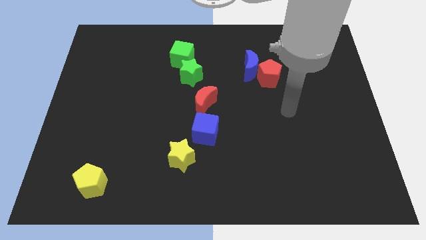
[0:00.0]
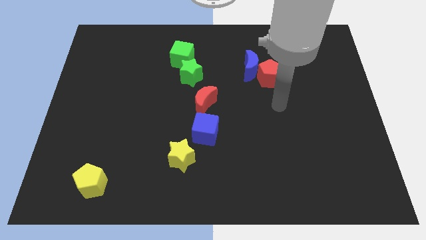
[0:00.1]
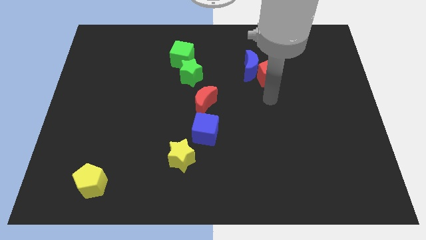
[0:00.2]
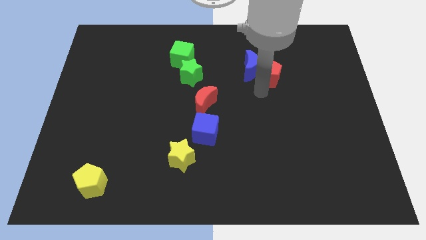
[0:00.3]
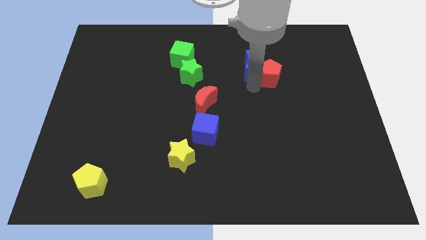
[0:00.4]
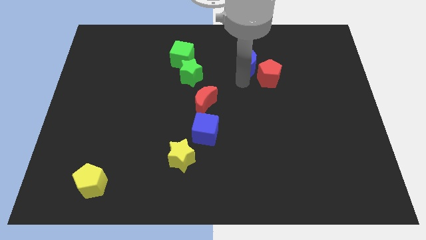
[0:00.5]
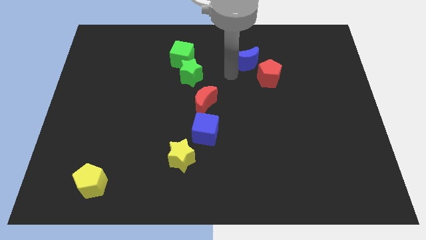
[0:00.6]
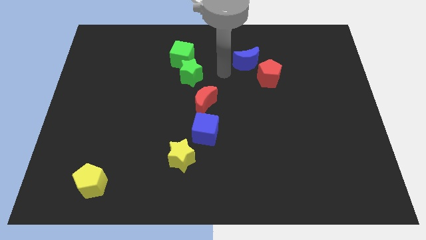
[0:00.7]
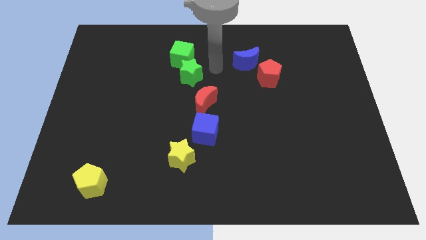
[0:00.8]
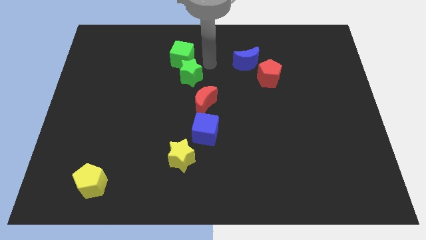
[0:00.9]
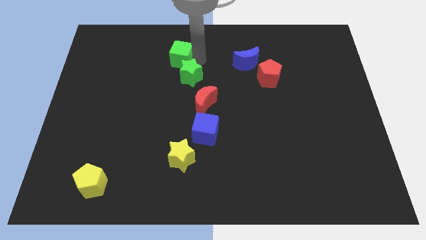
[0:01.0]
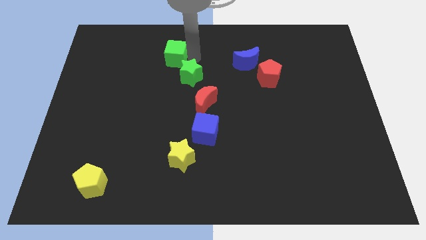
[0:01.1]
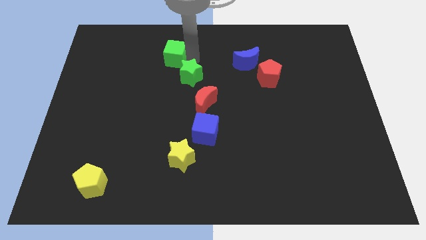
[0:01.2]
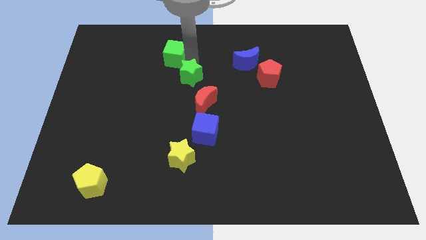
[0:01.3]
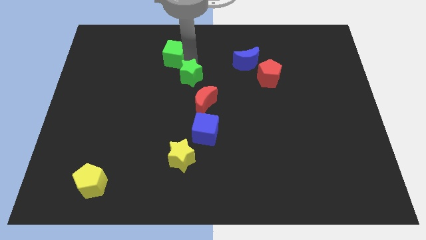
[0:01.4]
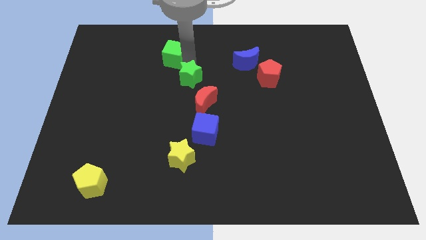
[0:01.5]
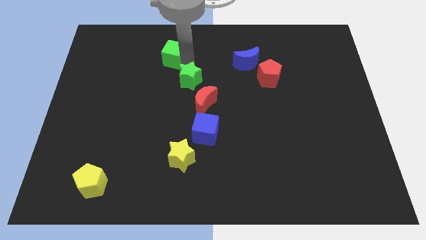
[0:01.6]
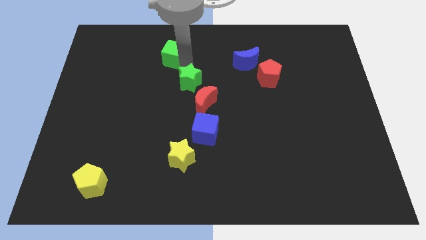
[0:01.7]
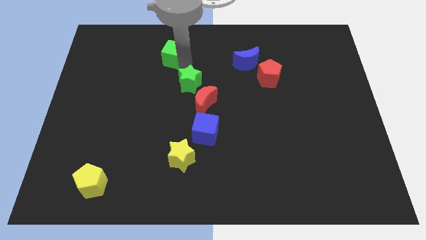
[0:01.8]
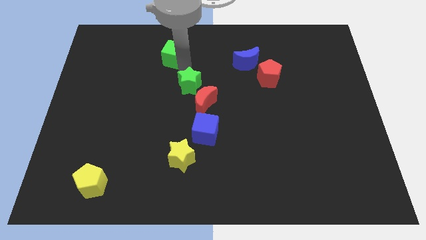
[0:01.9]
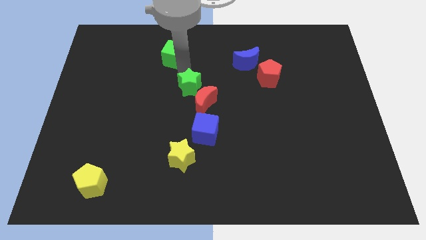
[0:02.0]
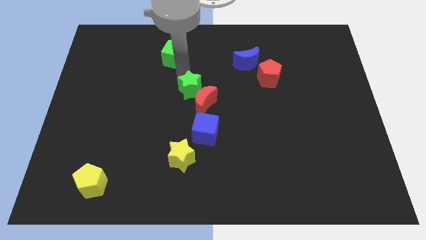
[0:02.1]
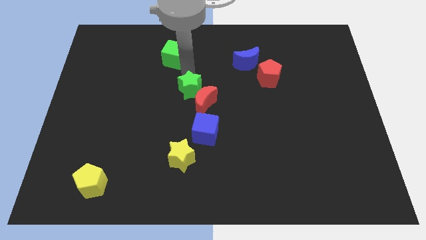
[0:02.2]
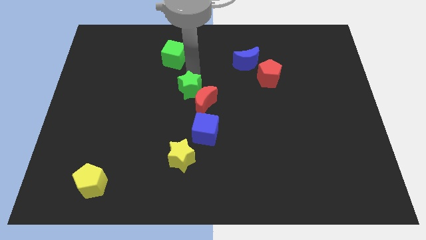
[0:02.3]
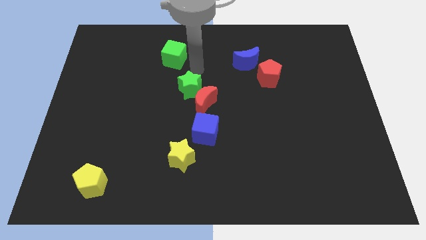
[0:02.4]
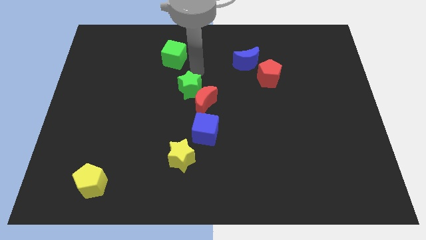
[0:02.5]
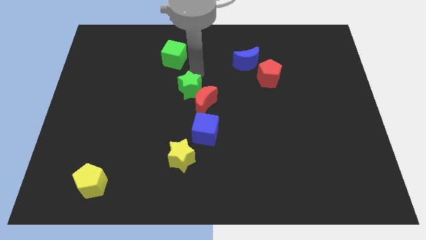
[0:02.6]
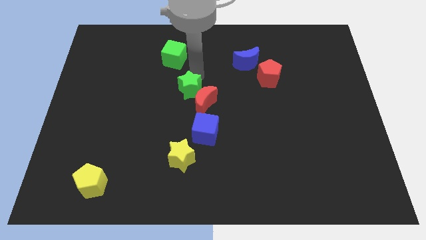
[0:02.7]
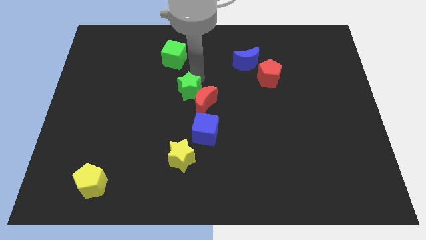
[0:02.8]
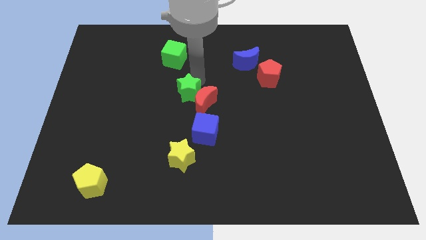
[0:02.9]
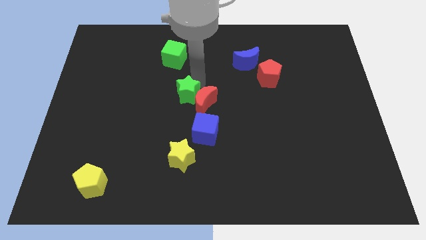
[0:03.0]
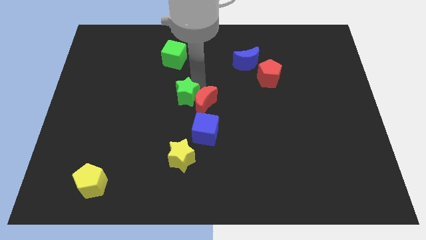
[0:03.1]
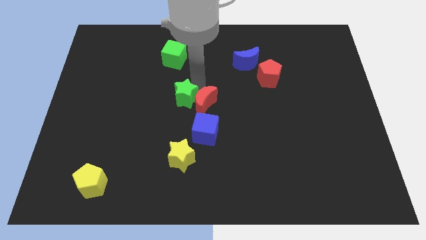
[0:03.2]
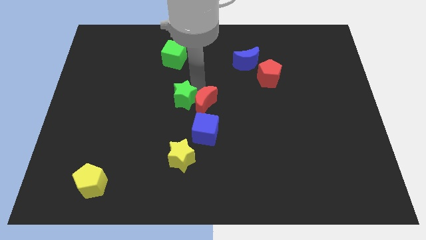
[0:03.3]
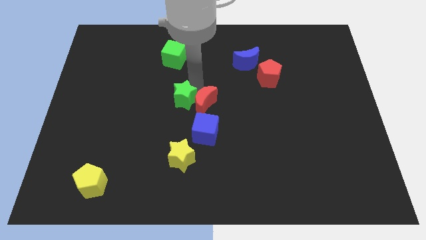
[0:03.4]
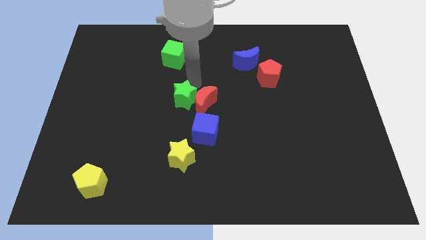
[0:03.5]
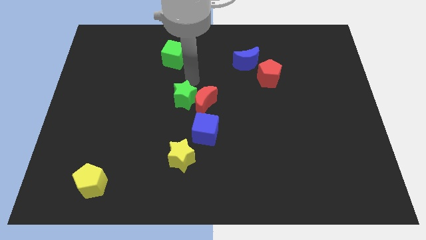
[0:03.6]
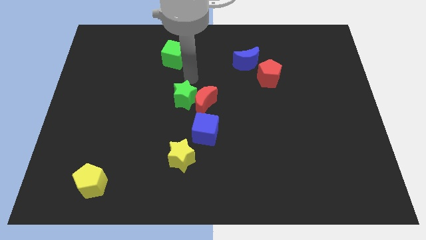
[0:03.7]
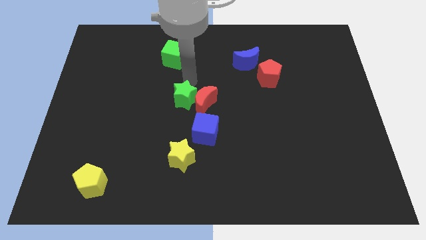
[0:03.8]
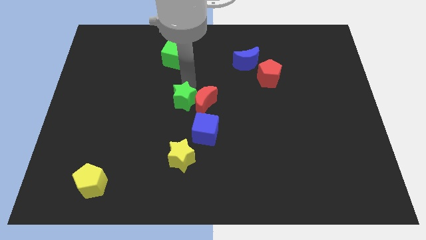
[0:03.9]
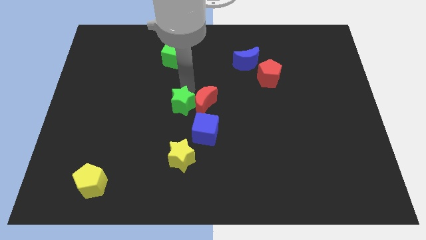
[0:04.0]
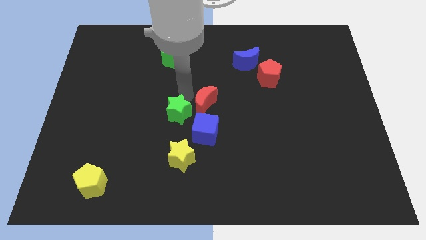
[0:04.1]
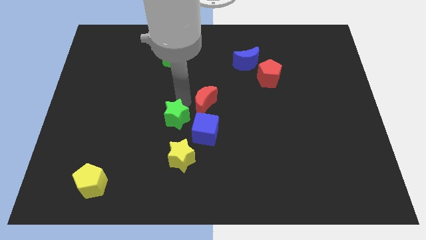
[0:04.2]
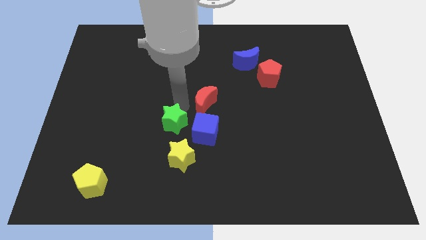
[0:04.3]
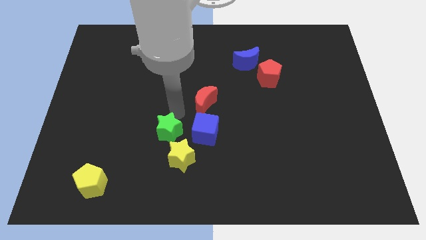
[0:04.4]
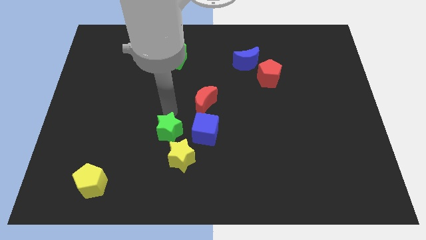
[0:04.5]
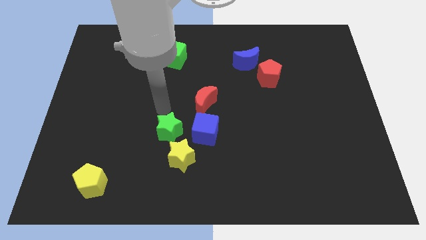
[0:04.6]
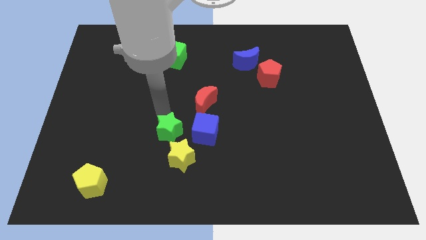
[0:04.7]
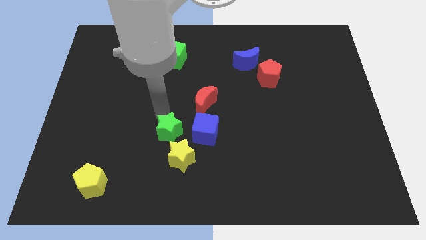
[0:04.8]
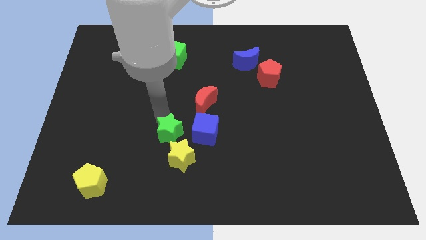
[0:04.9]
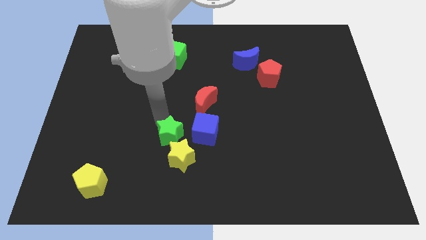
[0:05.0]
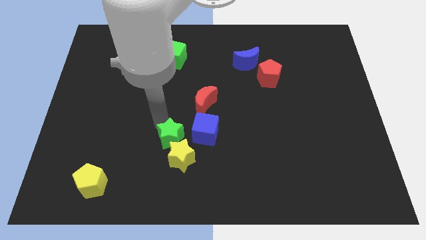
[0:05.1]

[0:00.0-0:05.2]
push the green star close to the yellow star

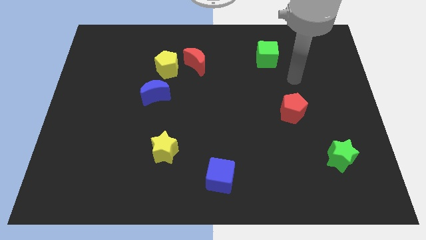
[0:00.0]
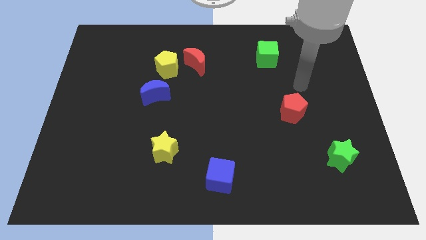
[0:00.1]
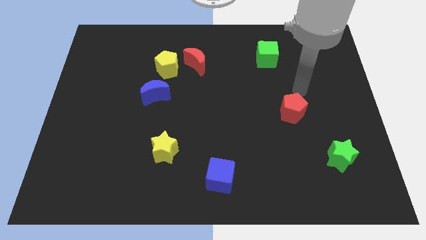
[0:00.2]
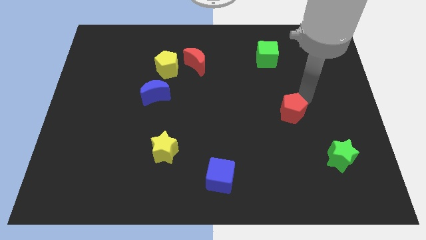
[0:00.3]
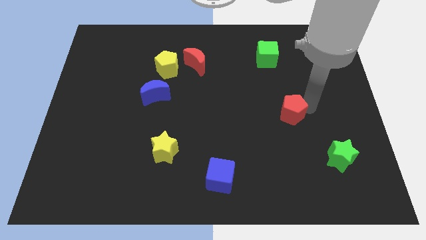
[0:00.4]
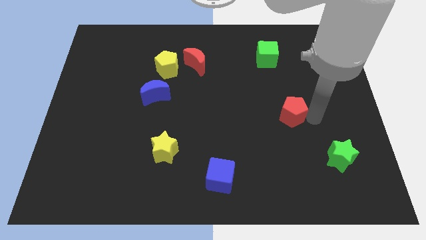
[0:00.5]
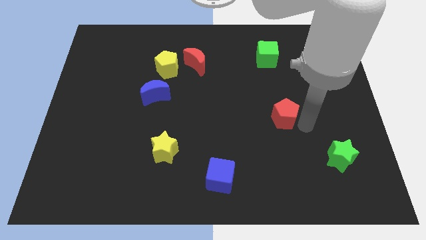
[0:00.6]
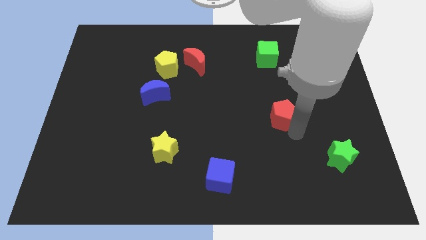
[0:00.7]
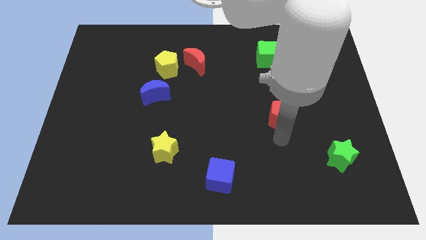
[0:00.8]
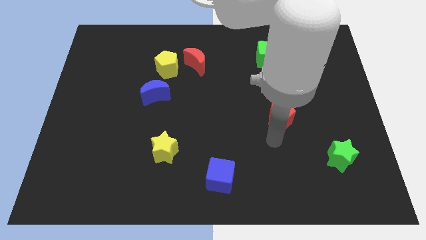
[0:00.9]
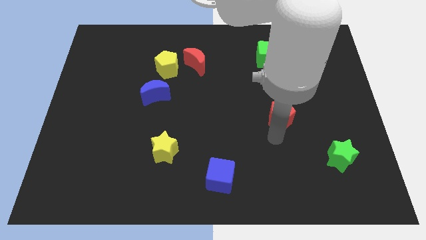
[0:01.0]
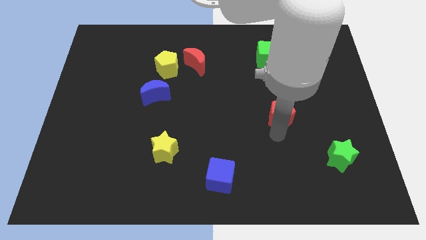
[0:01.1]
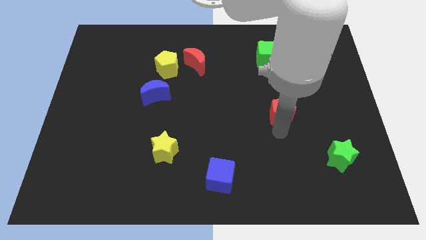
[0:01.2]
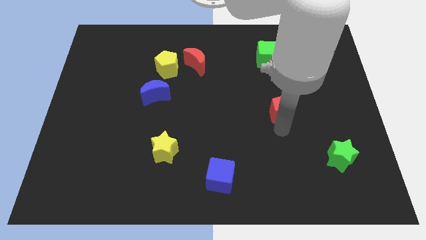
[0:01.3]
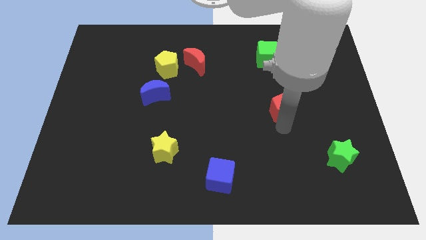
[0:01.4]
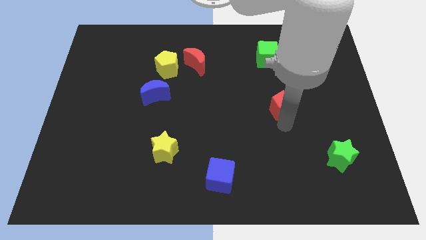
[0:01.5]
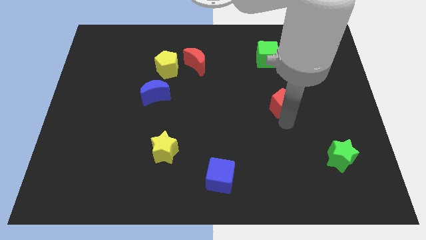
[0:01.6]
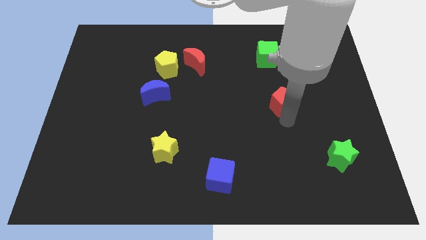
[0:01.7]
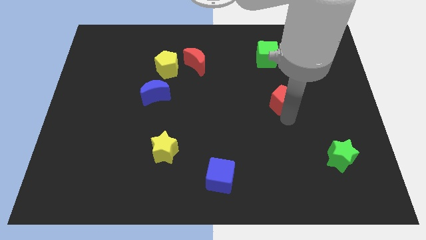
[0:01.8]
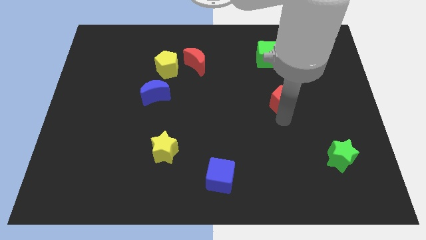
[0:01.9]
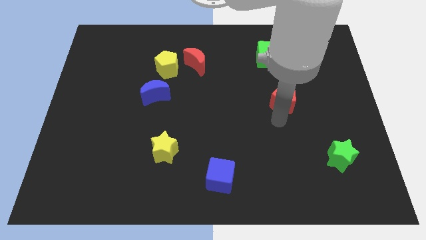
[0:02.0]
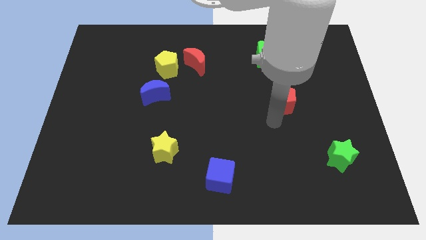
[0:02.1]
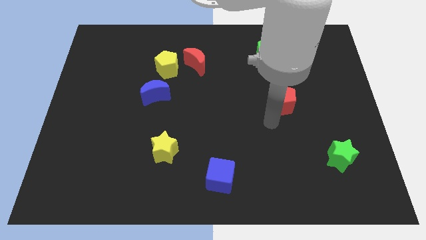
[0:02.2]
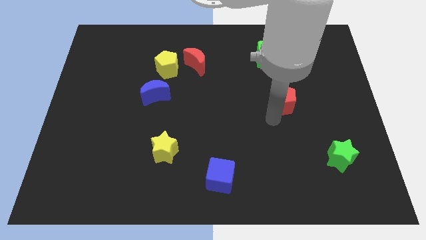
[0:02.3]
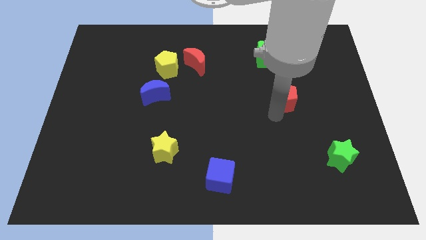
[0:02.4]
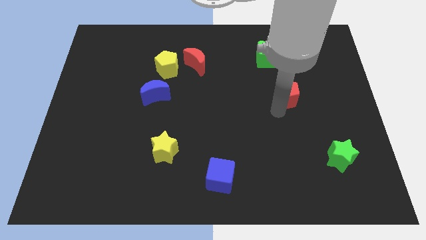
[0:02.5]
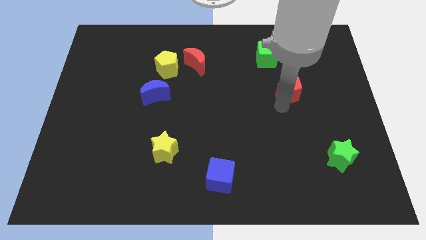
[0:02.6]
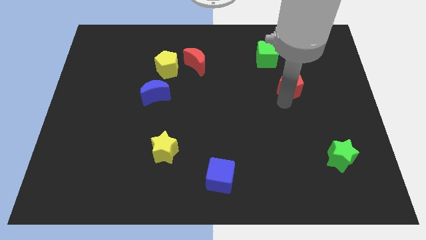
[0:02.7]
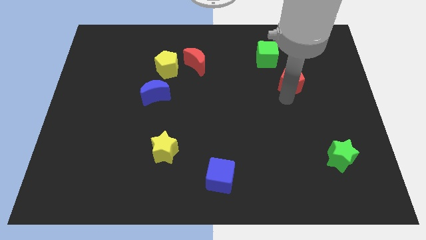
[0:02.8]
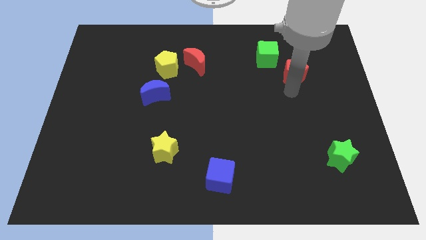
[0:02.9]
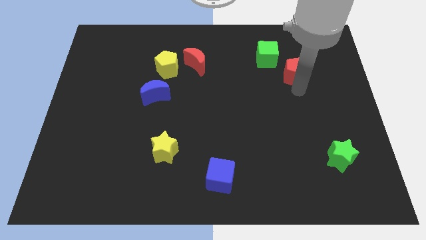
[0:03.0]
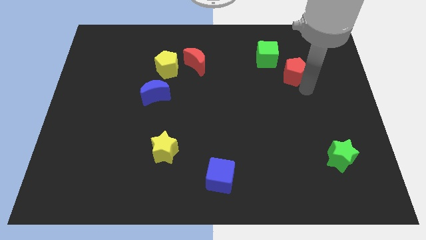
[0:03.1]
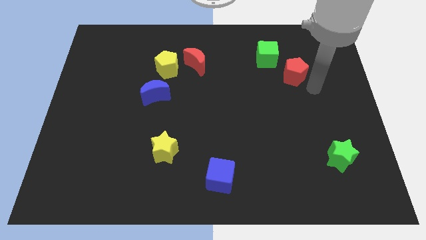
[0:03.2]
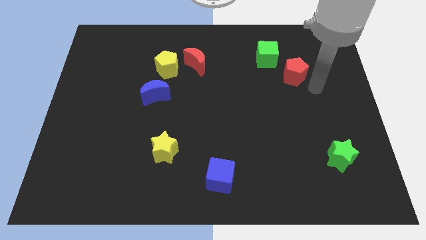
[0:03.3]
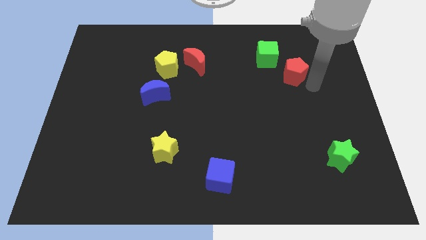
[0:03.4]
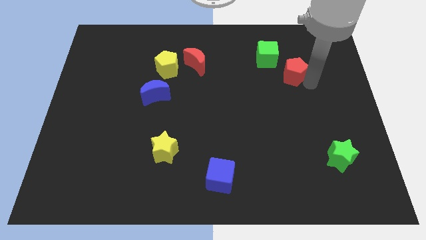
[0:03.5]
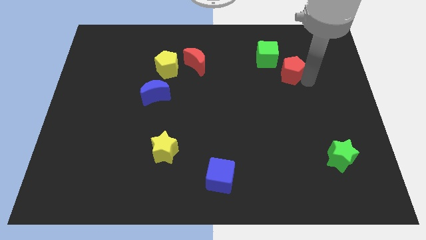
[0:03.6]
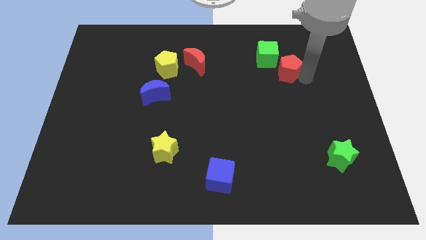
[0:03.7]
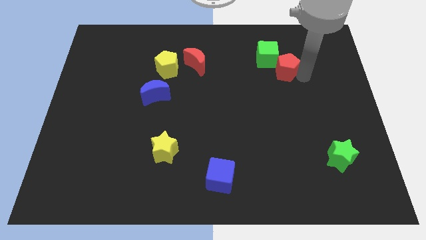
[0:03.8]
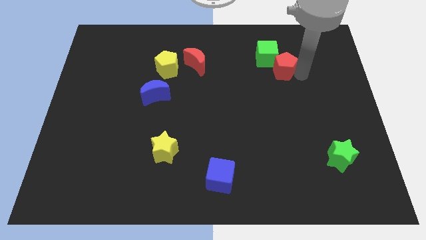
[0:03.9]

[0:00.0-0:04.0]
slide the red pentagon close to the green cube
